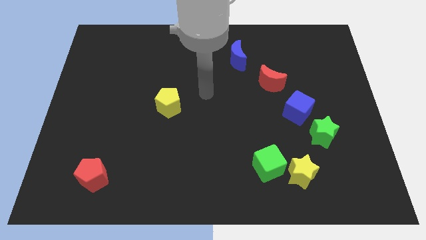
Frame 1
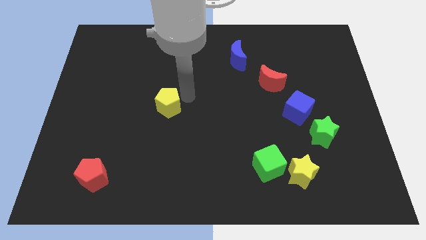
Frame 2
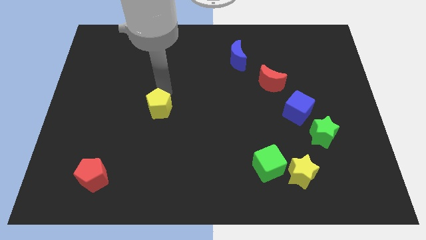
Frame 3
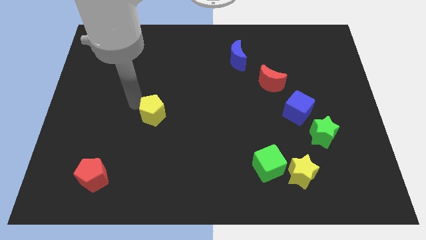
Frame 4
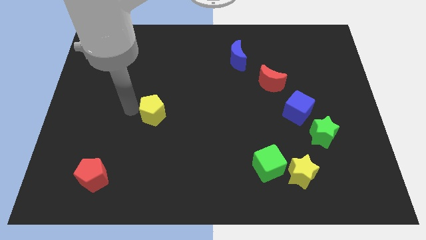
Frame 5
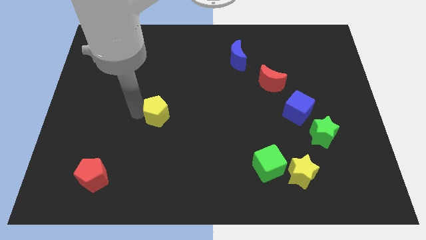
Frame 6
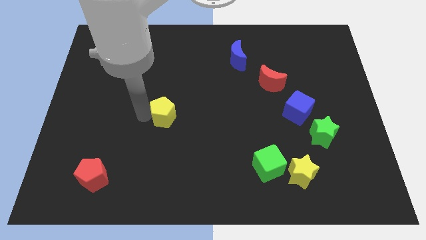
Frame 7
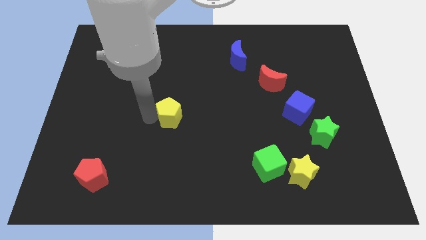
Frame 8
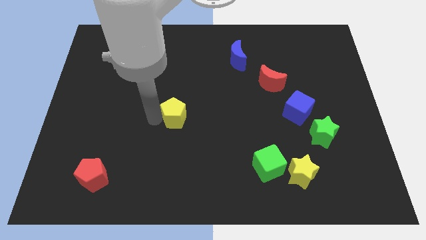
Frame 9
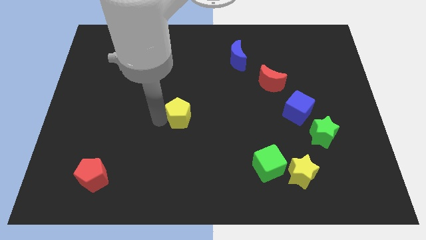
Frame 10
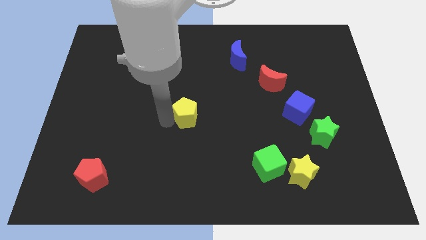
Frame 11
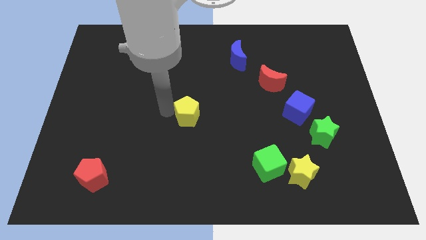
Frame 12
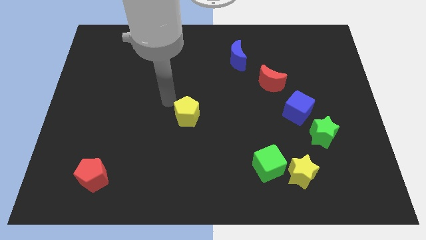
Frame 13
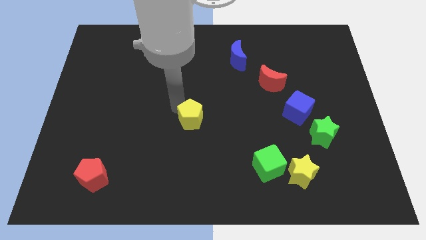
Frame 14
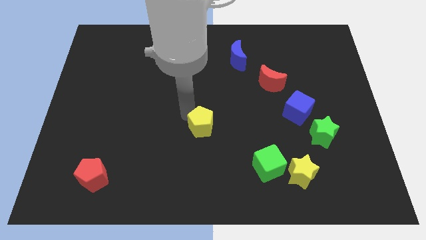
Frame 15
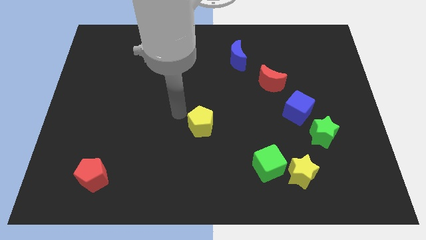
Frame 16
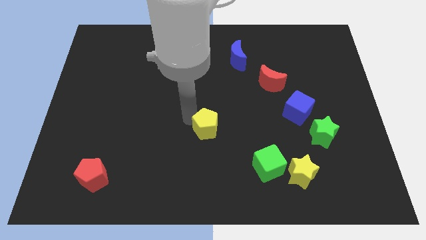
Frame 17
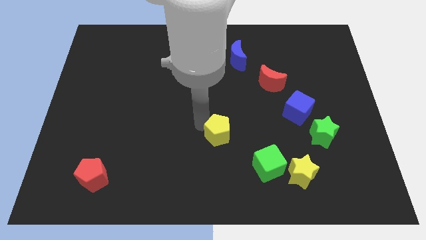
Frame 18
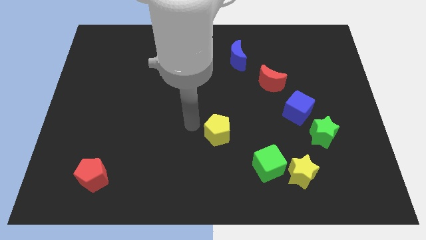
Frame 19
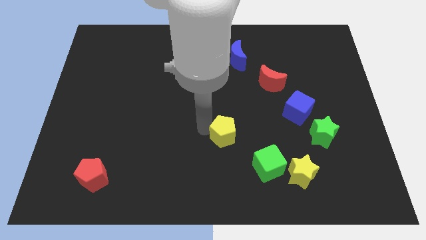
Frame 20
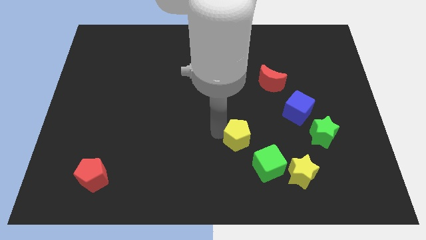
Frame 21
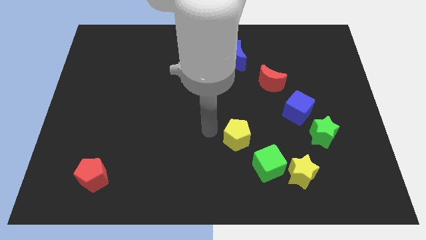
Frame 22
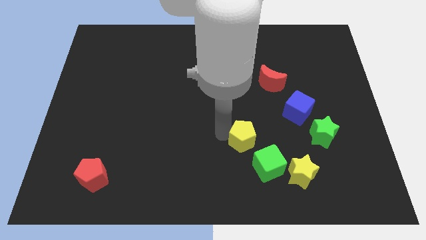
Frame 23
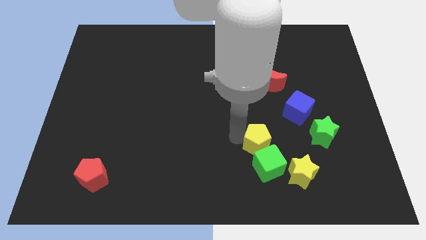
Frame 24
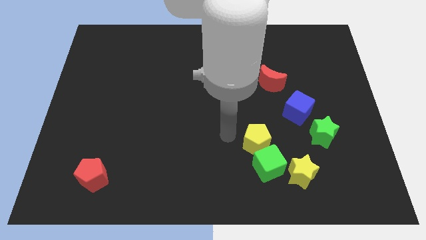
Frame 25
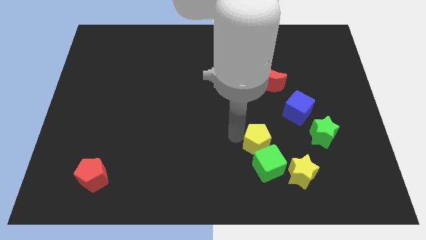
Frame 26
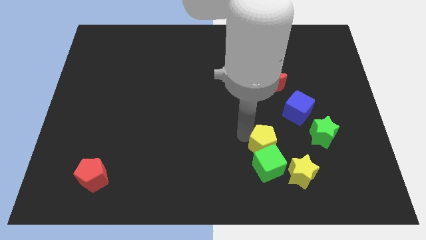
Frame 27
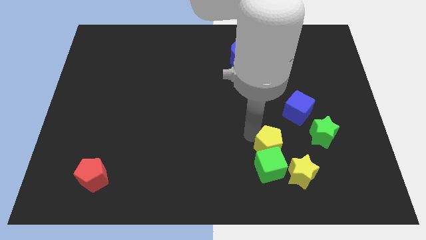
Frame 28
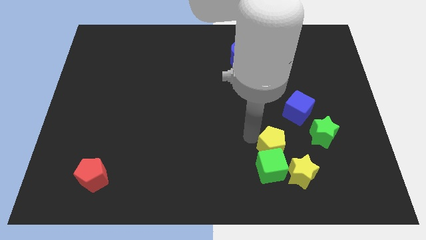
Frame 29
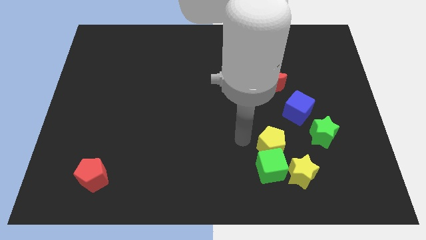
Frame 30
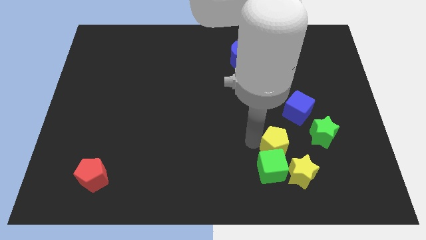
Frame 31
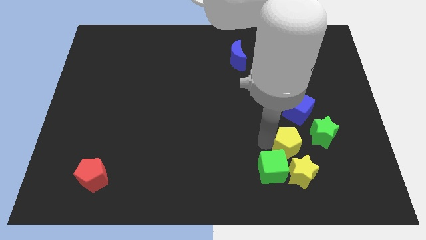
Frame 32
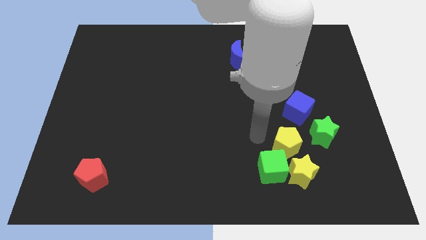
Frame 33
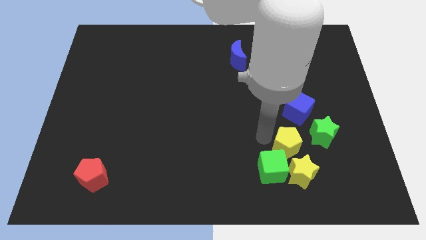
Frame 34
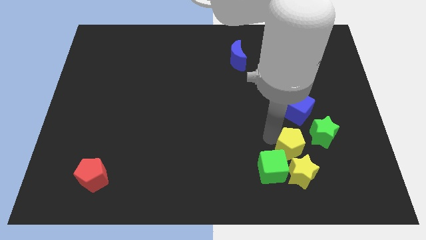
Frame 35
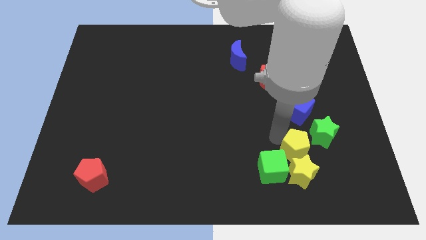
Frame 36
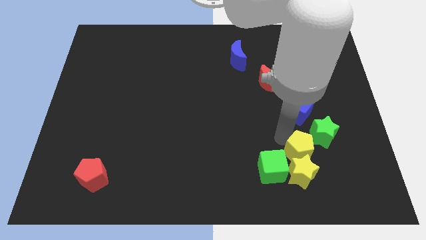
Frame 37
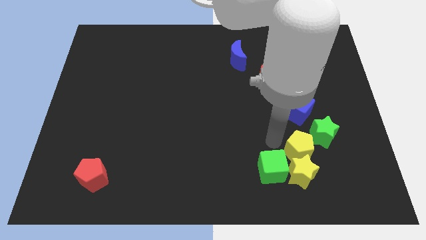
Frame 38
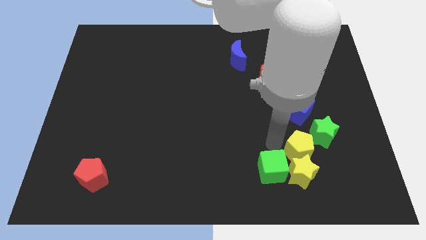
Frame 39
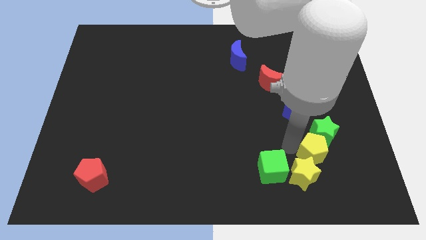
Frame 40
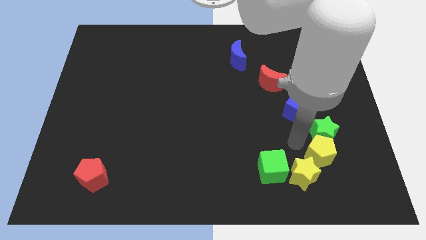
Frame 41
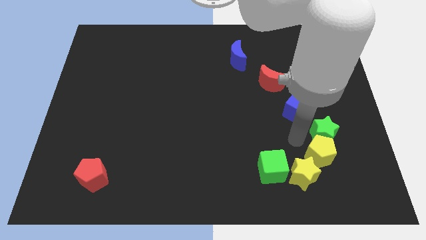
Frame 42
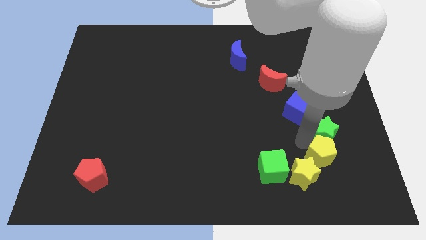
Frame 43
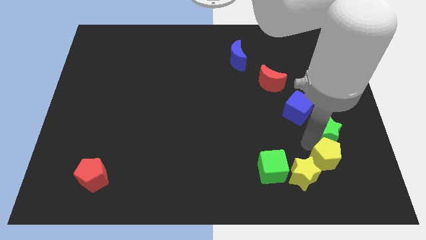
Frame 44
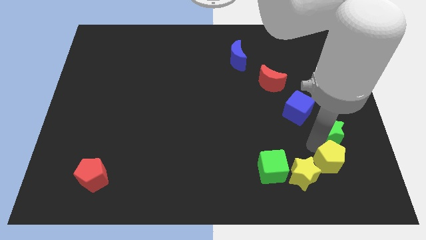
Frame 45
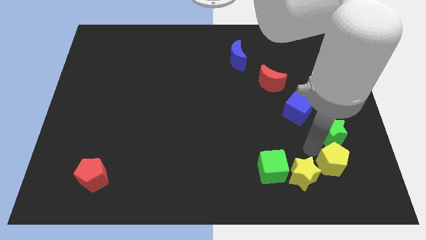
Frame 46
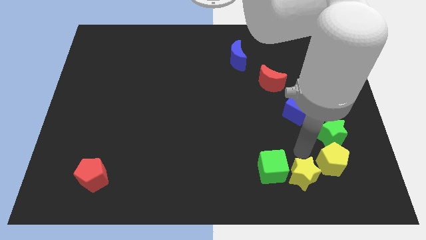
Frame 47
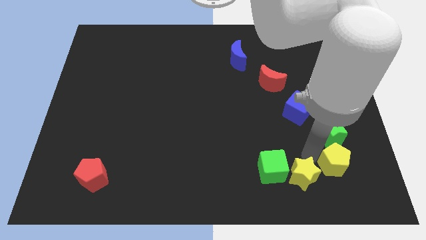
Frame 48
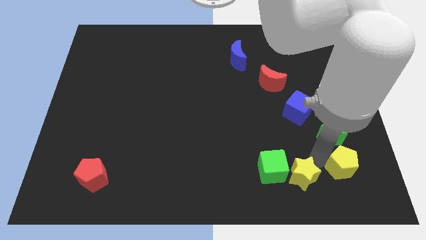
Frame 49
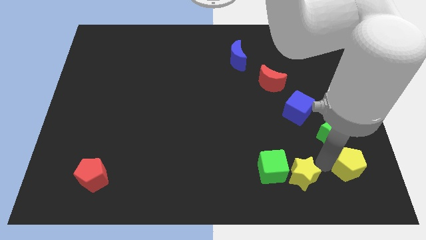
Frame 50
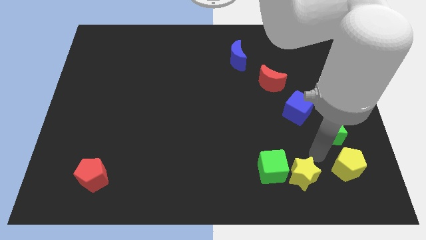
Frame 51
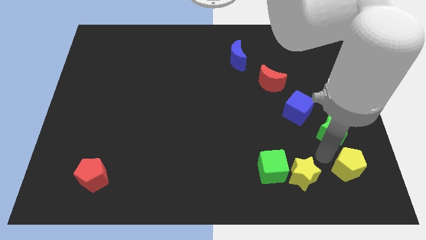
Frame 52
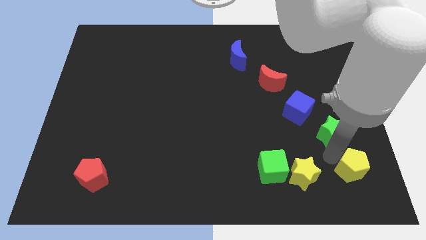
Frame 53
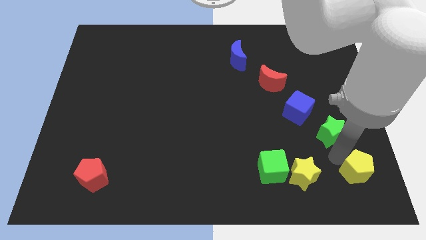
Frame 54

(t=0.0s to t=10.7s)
move the yellow pentagon to the bottom right of the board

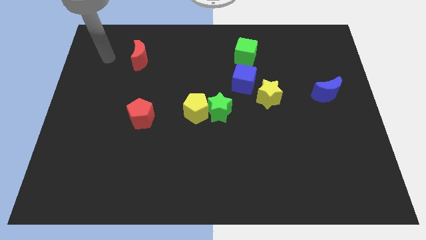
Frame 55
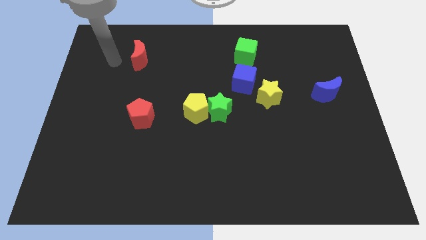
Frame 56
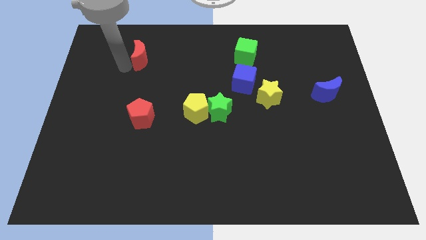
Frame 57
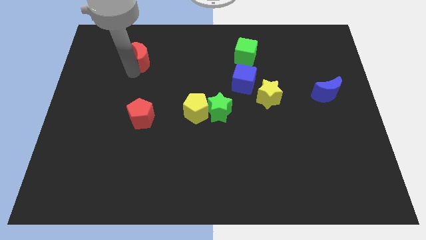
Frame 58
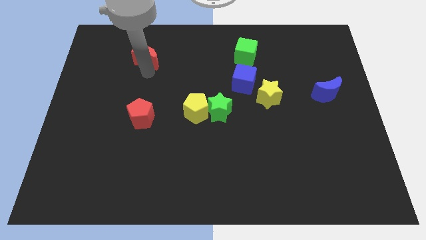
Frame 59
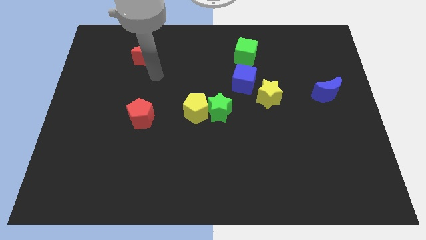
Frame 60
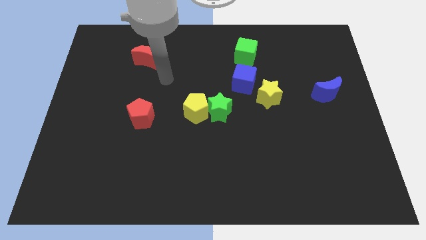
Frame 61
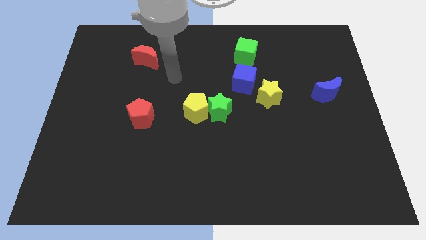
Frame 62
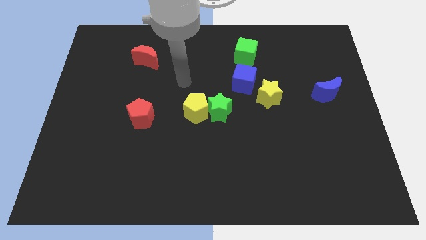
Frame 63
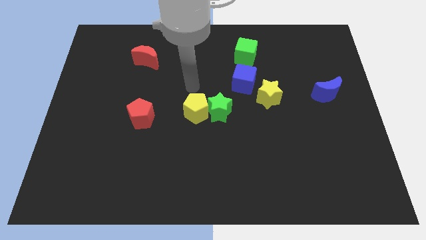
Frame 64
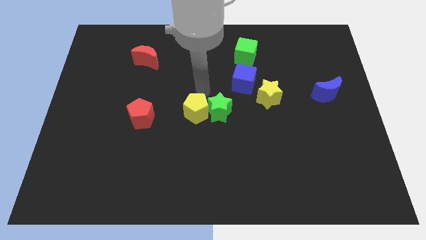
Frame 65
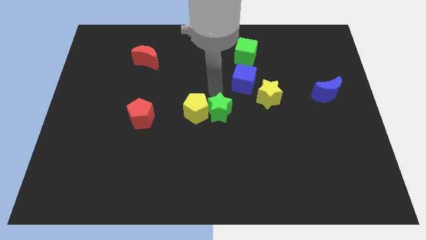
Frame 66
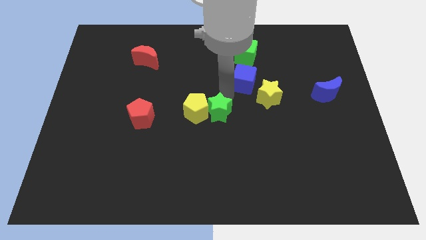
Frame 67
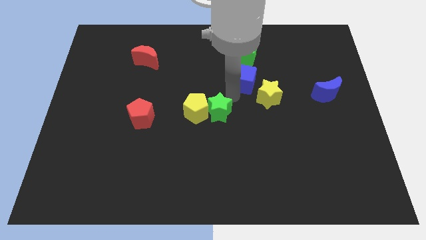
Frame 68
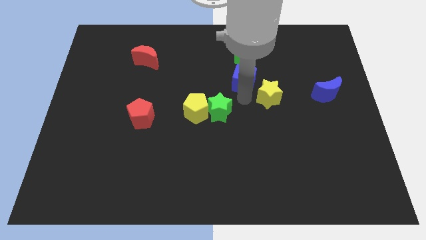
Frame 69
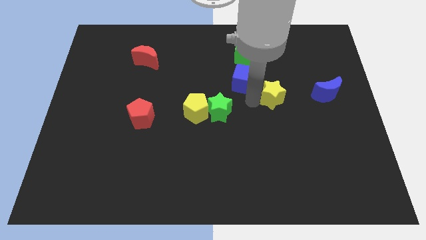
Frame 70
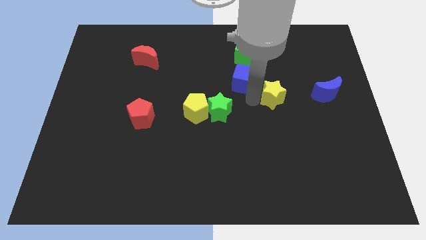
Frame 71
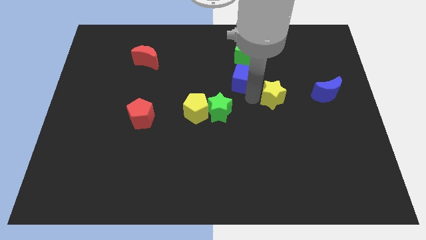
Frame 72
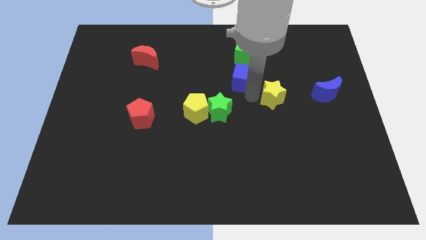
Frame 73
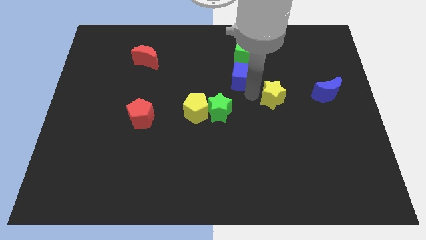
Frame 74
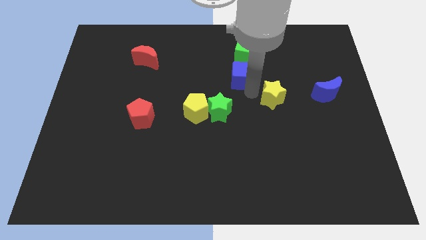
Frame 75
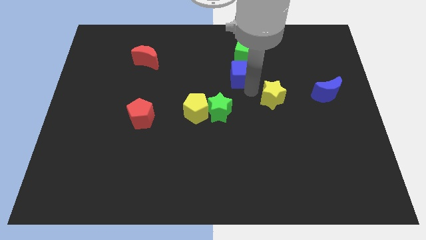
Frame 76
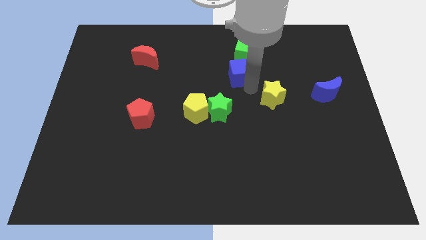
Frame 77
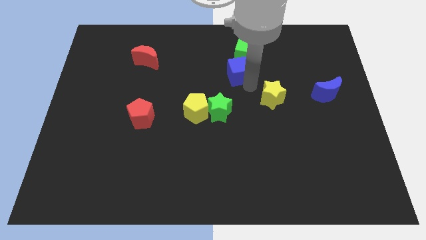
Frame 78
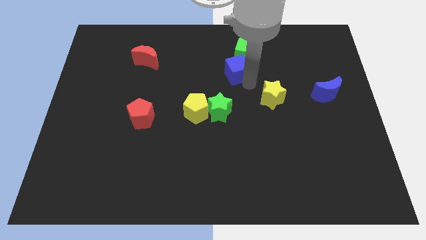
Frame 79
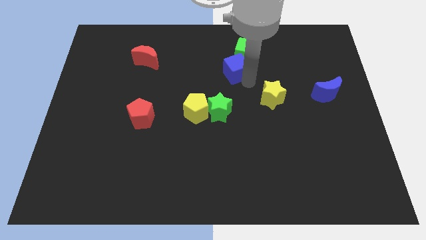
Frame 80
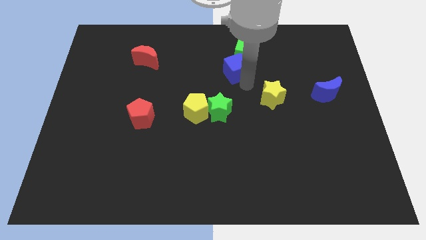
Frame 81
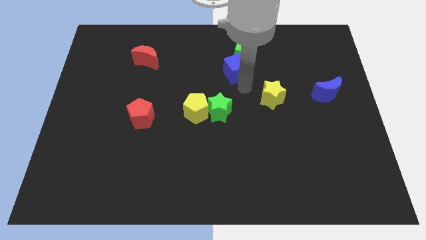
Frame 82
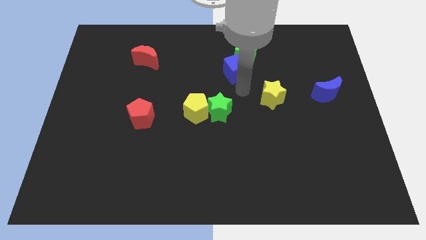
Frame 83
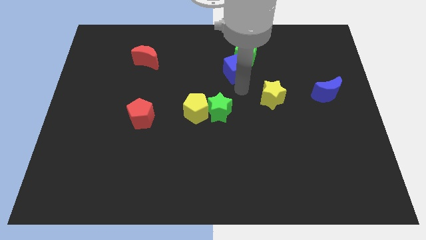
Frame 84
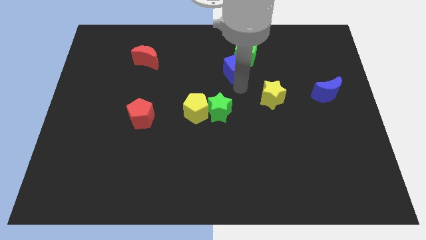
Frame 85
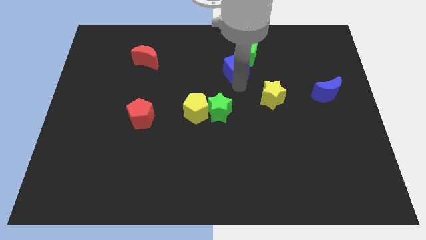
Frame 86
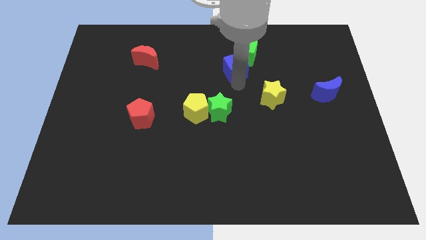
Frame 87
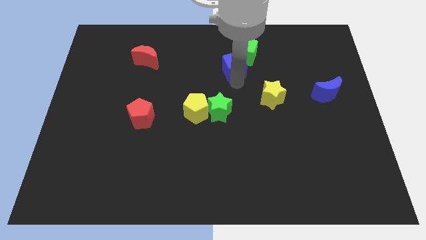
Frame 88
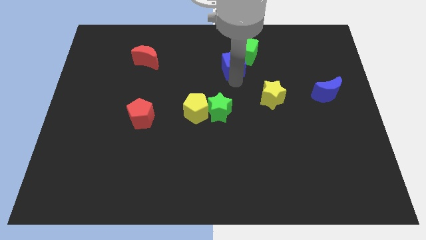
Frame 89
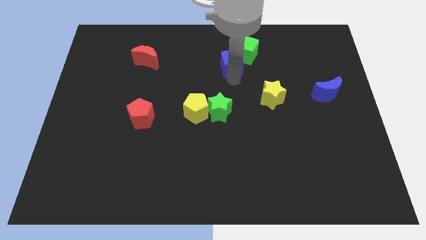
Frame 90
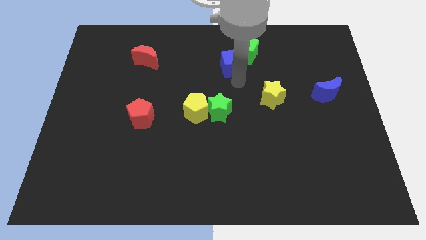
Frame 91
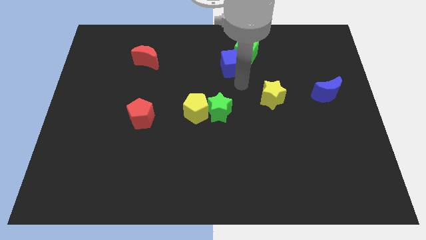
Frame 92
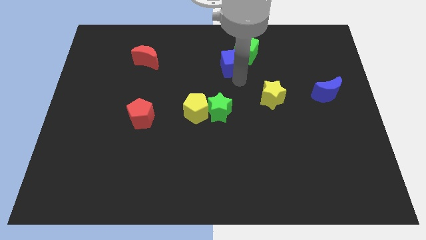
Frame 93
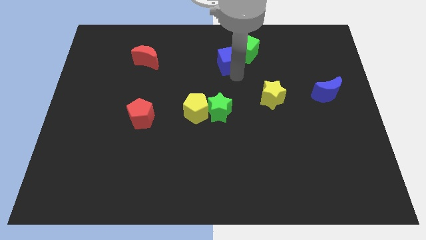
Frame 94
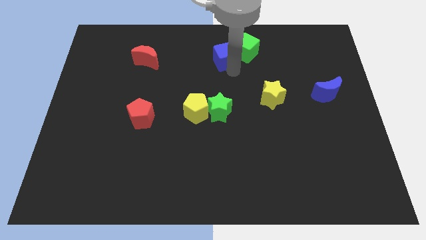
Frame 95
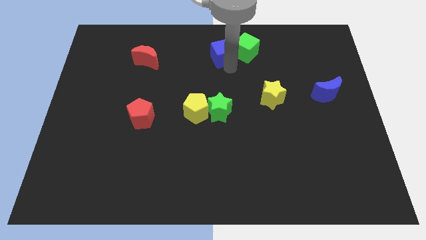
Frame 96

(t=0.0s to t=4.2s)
move the blue cube to the towards your base
